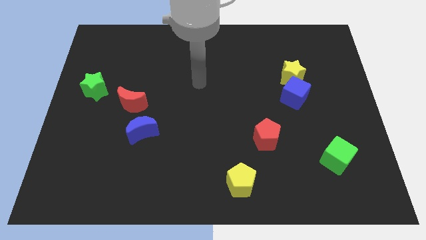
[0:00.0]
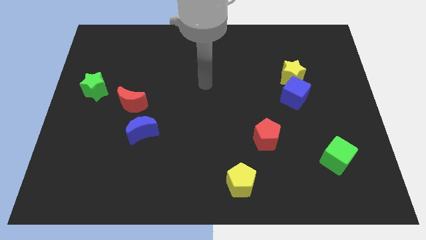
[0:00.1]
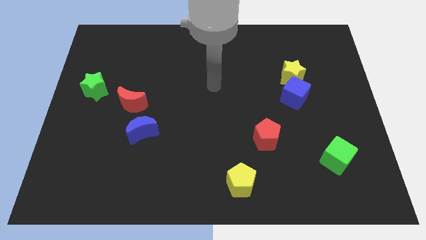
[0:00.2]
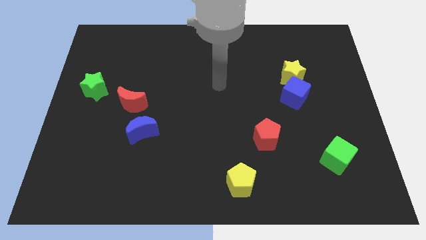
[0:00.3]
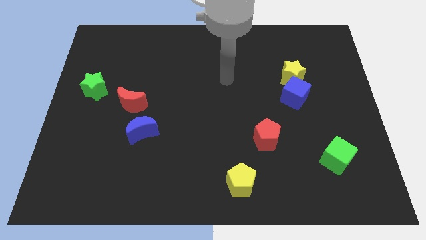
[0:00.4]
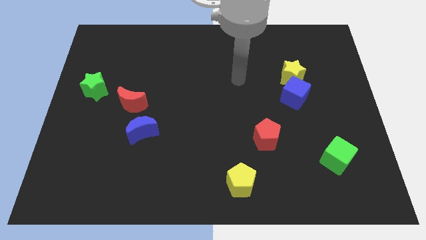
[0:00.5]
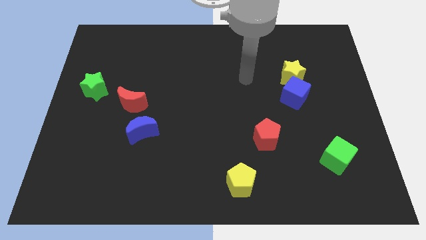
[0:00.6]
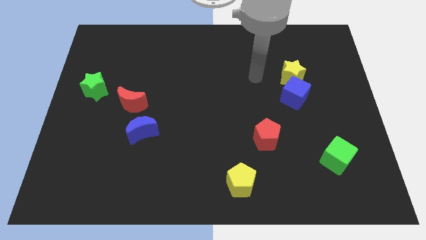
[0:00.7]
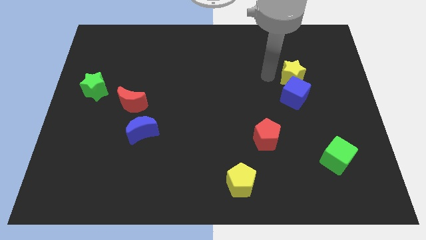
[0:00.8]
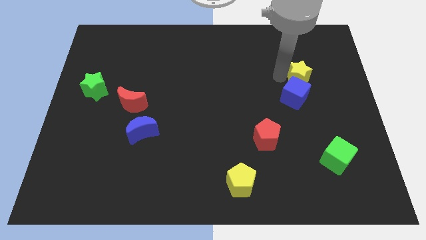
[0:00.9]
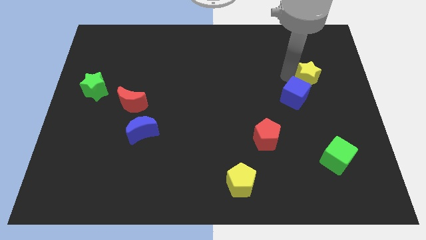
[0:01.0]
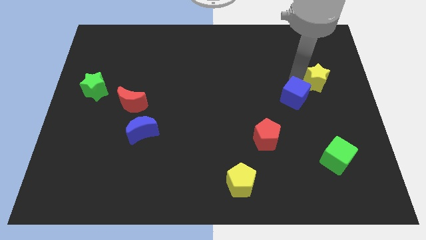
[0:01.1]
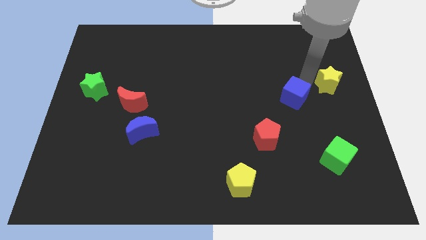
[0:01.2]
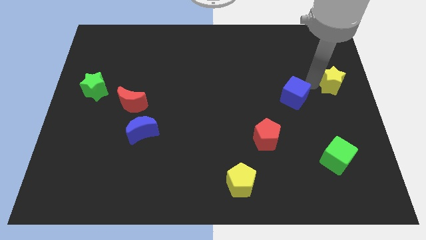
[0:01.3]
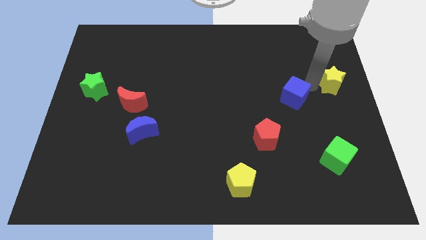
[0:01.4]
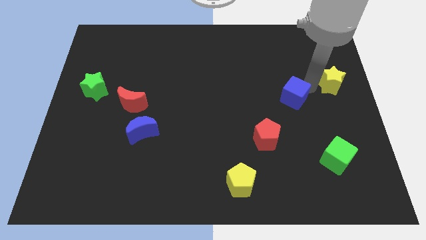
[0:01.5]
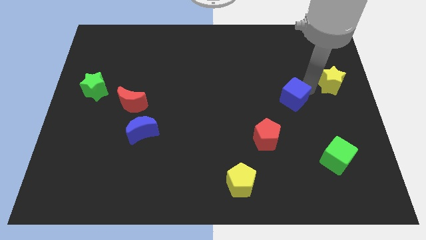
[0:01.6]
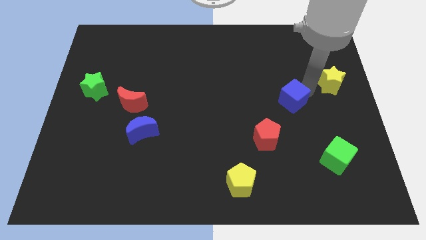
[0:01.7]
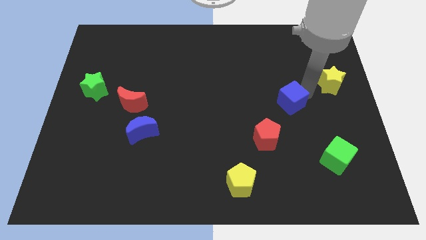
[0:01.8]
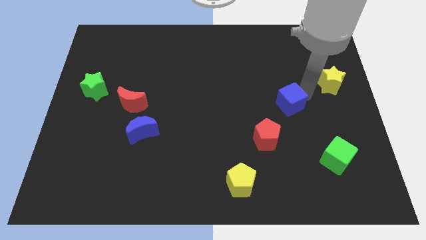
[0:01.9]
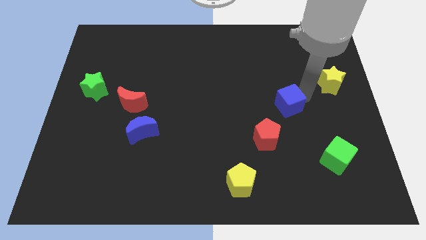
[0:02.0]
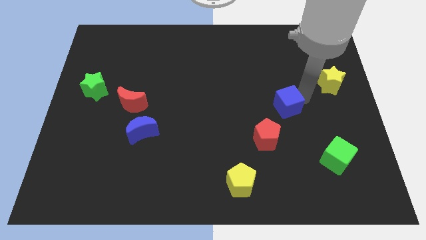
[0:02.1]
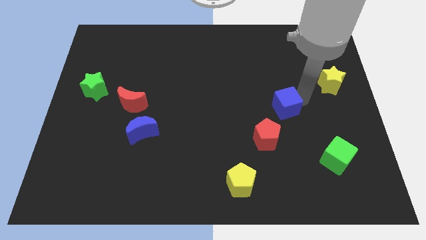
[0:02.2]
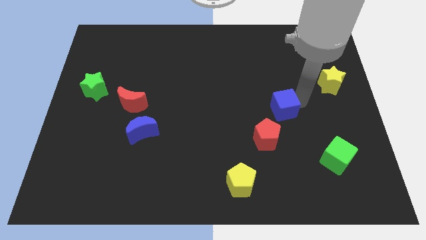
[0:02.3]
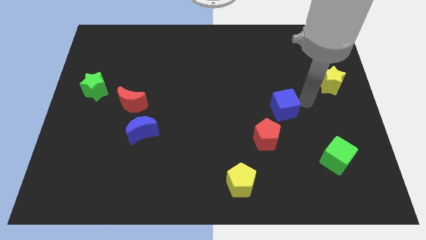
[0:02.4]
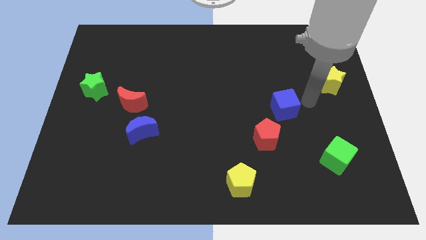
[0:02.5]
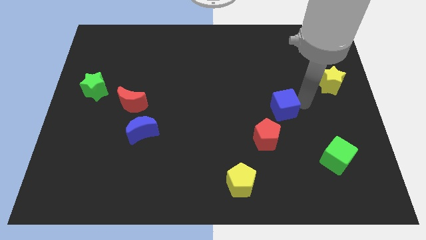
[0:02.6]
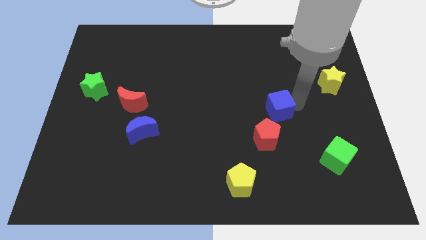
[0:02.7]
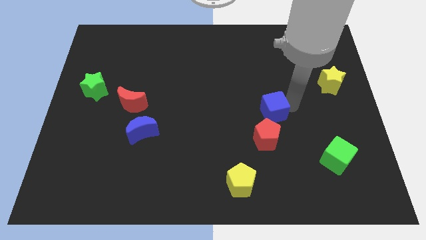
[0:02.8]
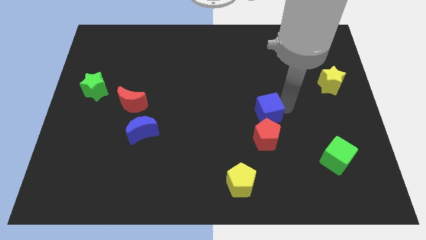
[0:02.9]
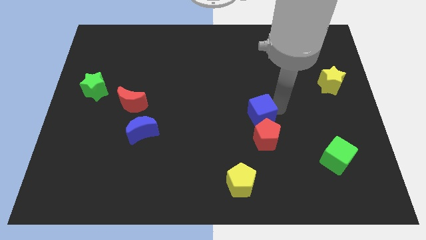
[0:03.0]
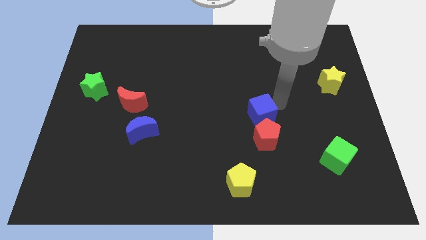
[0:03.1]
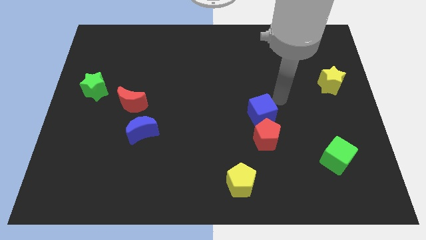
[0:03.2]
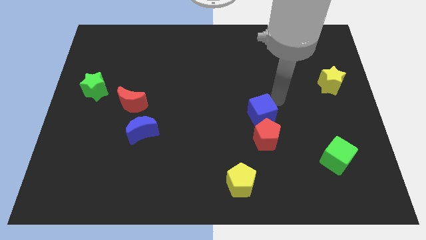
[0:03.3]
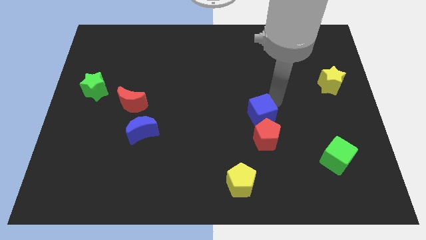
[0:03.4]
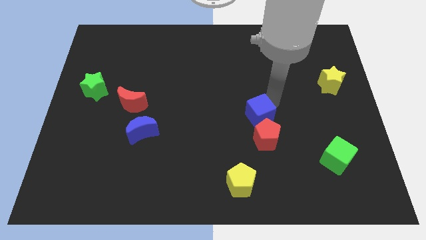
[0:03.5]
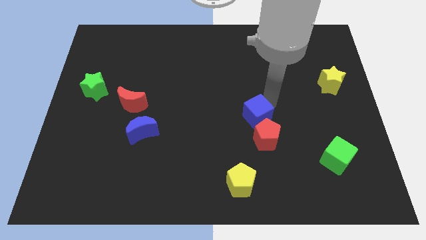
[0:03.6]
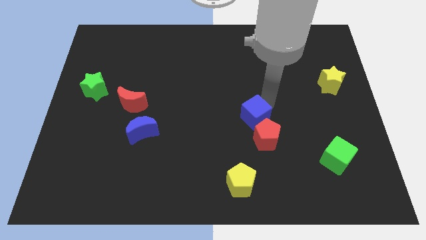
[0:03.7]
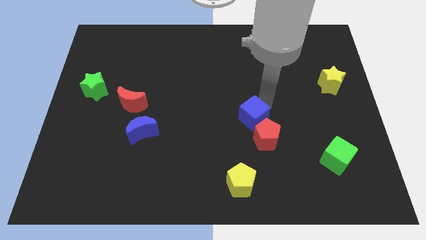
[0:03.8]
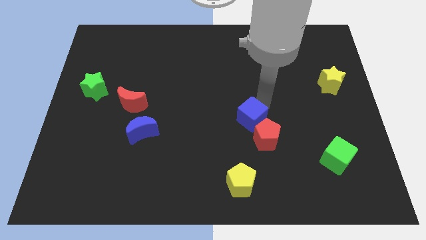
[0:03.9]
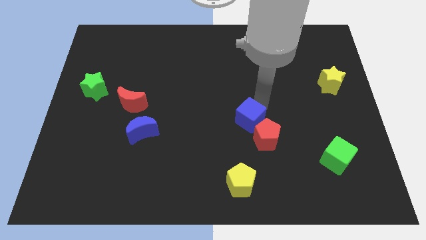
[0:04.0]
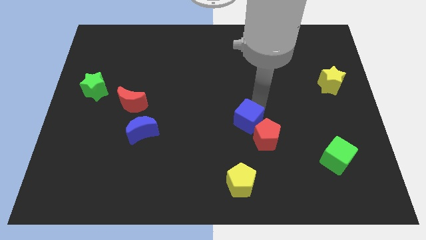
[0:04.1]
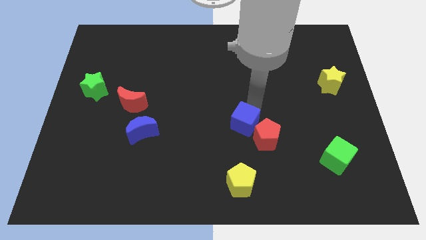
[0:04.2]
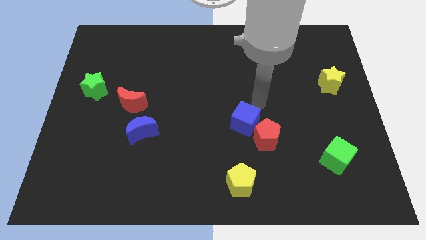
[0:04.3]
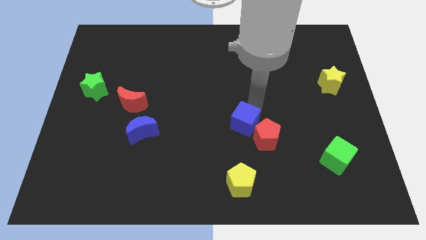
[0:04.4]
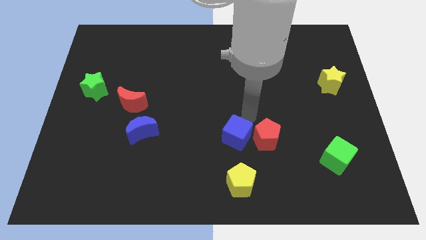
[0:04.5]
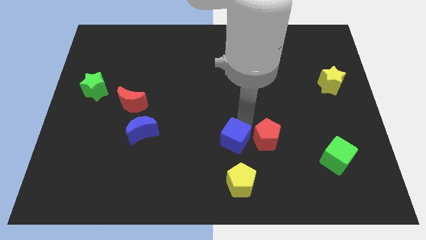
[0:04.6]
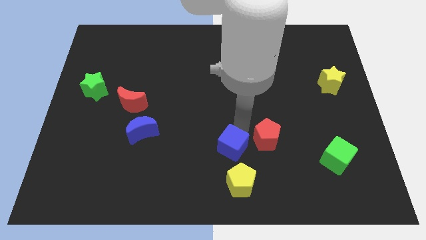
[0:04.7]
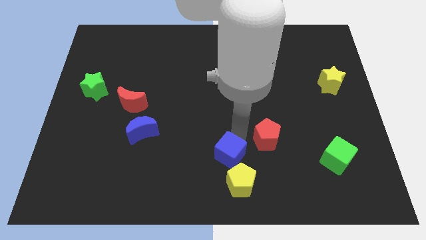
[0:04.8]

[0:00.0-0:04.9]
put the blue cube to the top left side of the yellow pentagon

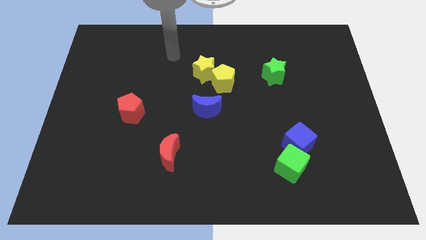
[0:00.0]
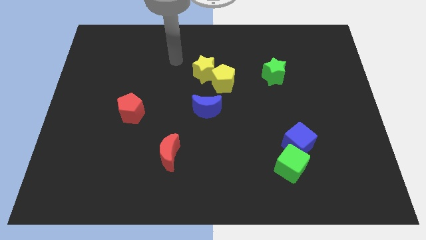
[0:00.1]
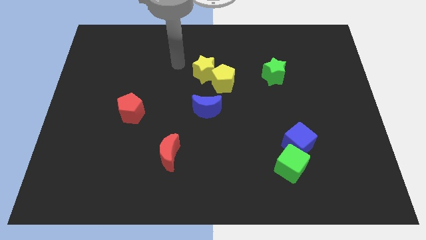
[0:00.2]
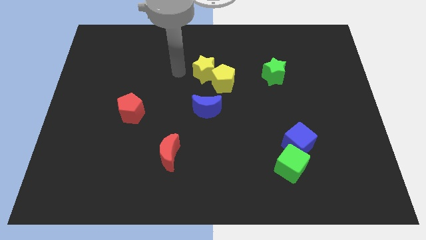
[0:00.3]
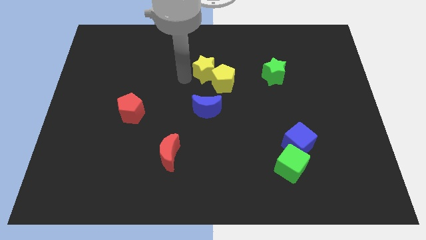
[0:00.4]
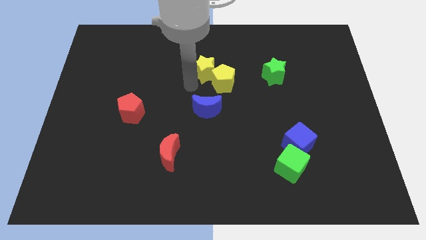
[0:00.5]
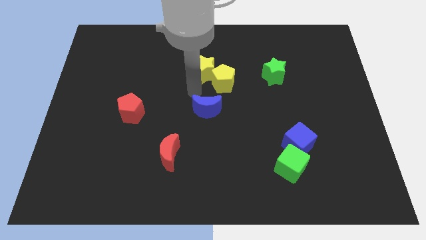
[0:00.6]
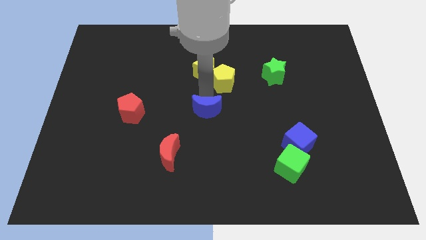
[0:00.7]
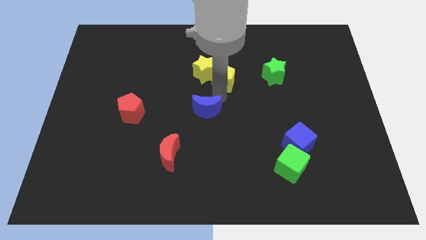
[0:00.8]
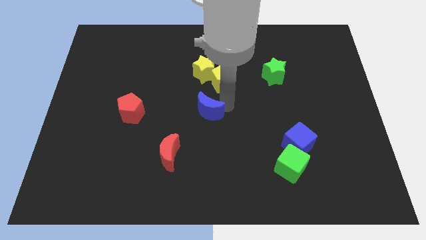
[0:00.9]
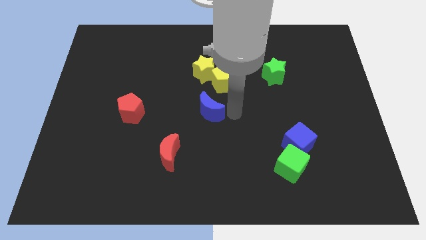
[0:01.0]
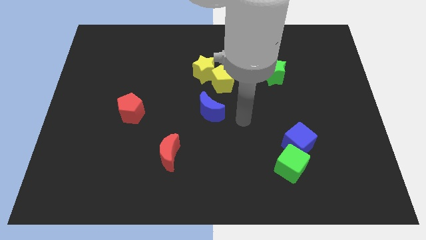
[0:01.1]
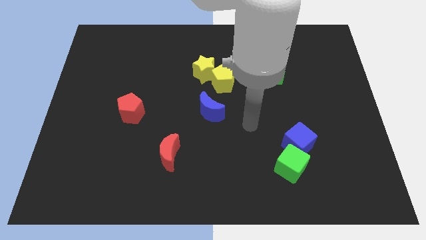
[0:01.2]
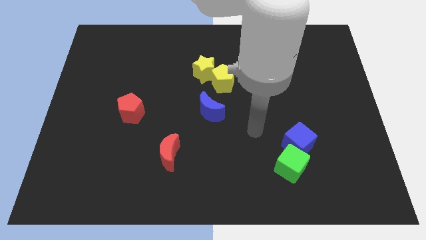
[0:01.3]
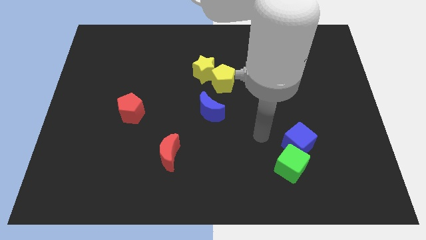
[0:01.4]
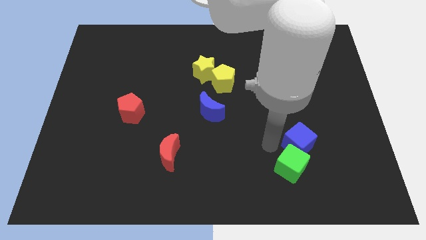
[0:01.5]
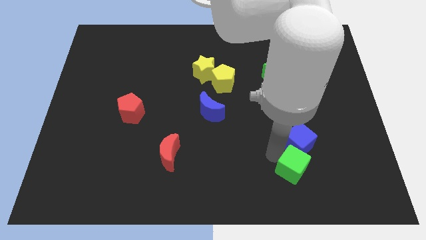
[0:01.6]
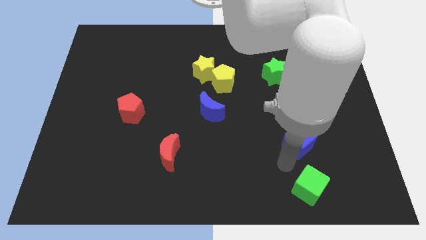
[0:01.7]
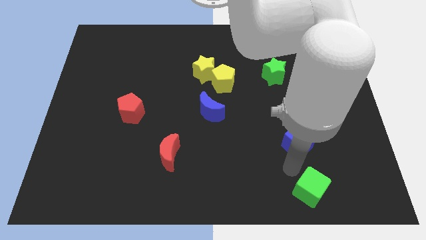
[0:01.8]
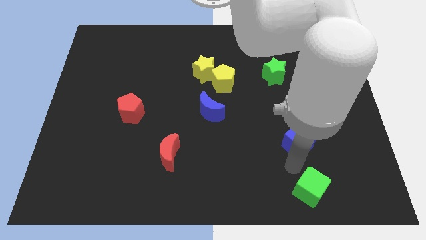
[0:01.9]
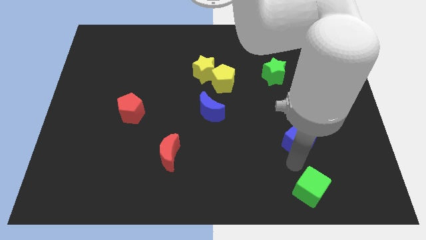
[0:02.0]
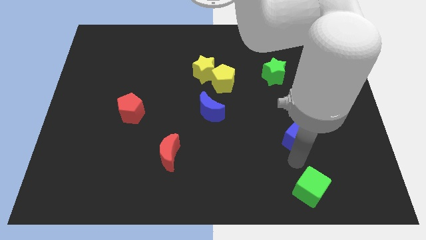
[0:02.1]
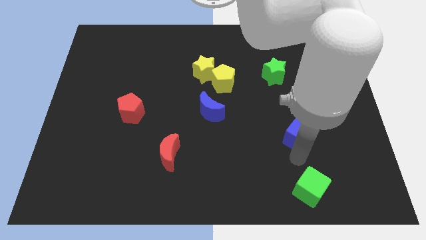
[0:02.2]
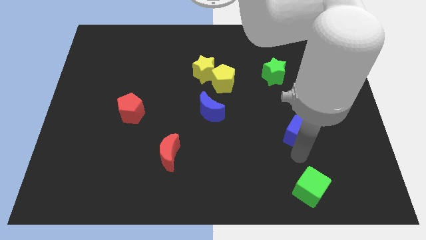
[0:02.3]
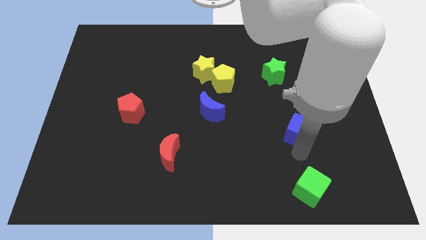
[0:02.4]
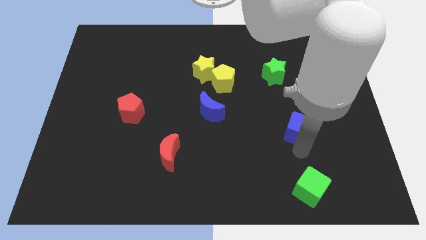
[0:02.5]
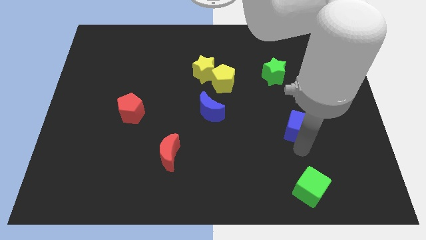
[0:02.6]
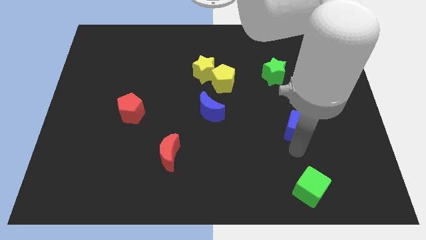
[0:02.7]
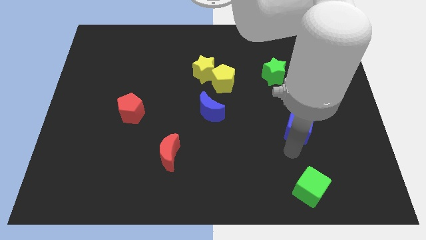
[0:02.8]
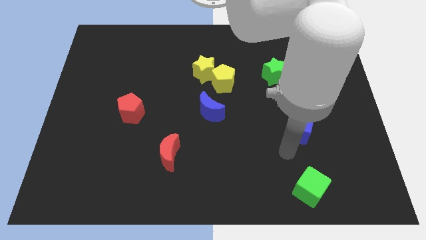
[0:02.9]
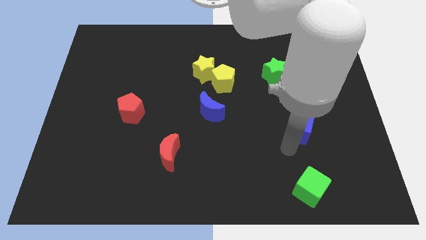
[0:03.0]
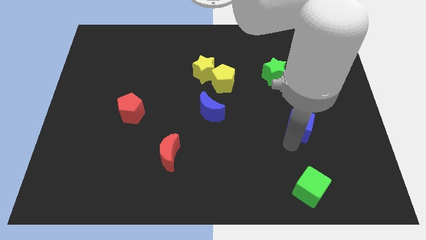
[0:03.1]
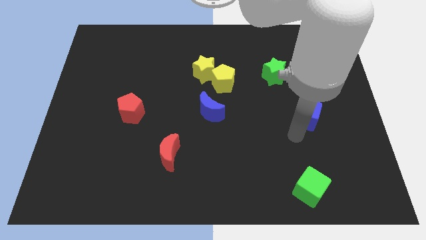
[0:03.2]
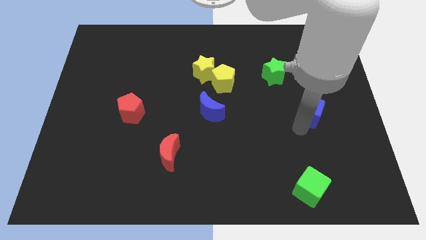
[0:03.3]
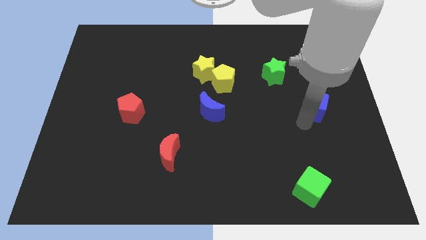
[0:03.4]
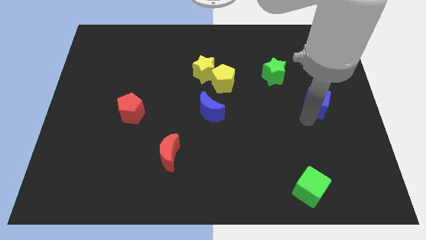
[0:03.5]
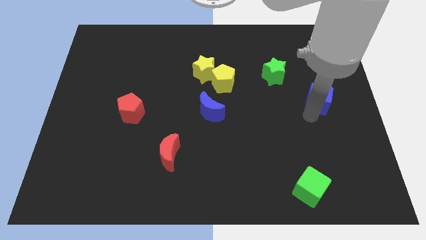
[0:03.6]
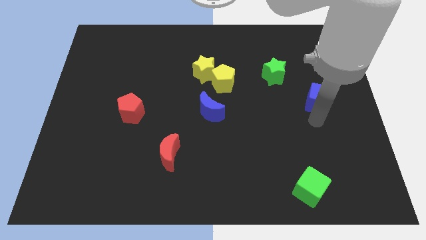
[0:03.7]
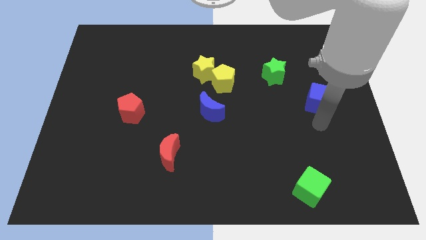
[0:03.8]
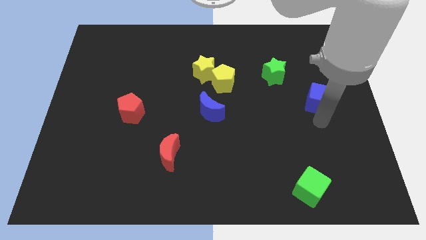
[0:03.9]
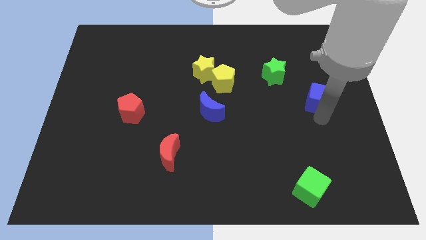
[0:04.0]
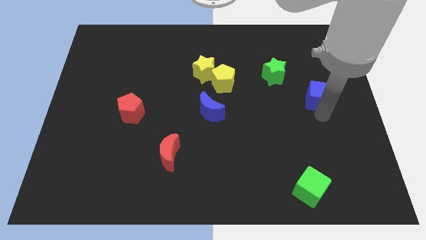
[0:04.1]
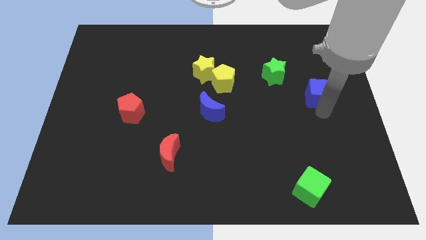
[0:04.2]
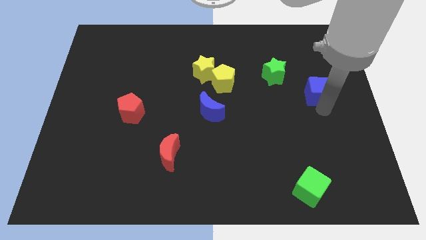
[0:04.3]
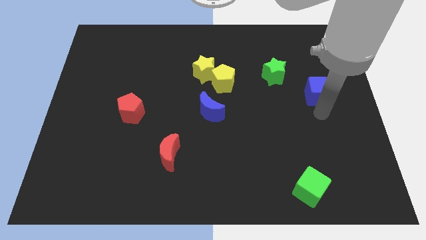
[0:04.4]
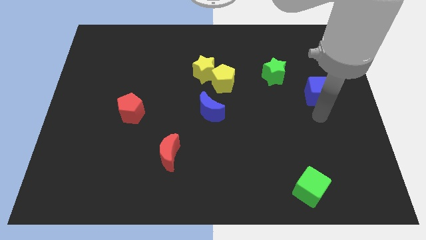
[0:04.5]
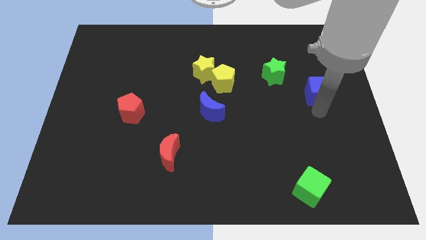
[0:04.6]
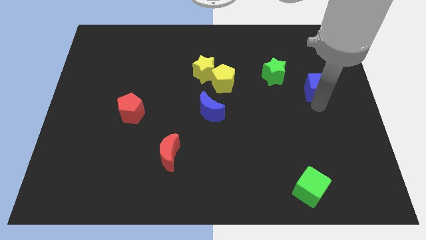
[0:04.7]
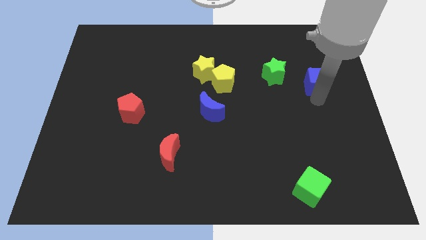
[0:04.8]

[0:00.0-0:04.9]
push the blue cube to the right side of the green star
